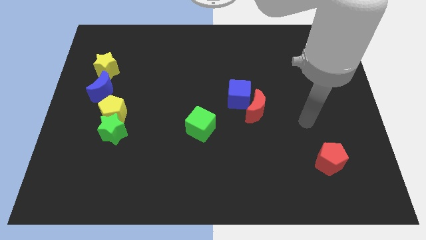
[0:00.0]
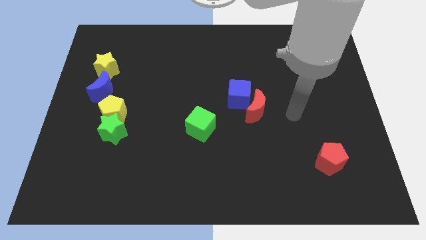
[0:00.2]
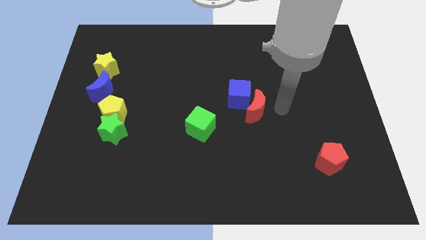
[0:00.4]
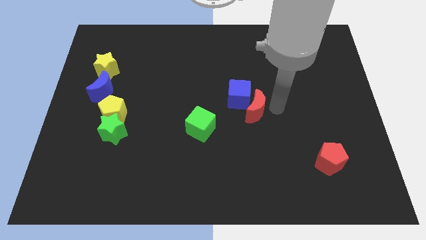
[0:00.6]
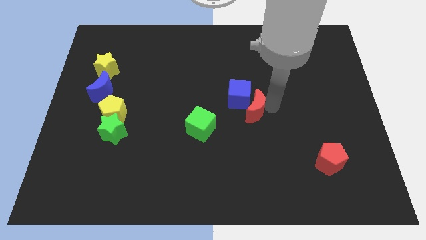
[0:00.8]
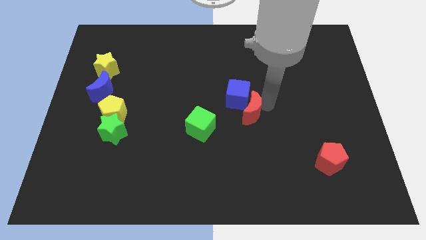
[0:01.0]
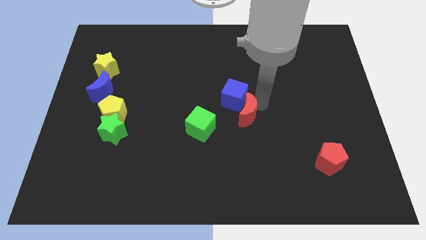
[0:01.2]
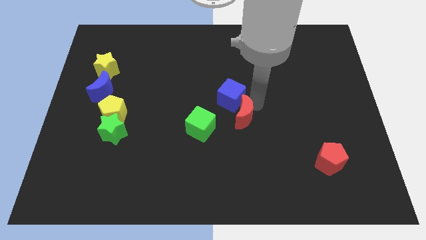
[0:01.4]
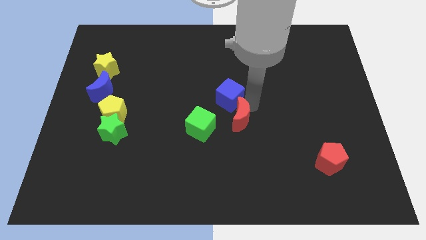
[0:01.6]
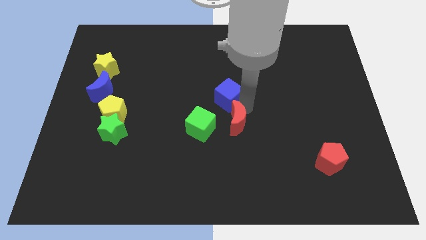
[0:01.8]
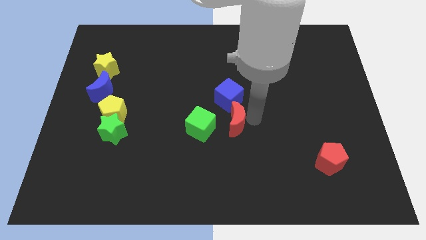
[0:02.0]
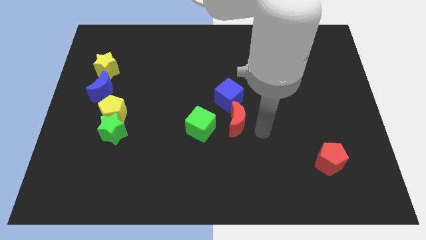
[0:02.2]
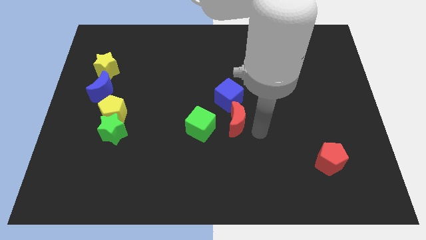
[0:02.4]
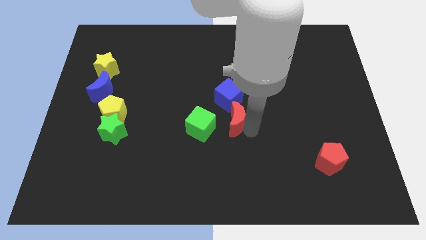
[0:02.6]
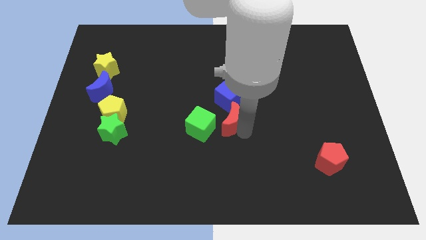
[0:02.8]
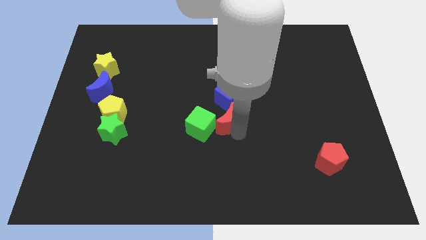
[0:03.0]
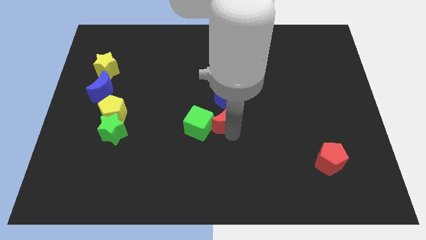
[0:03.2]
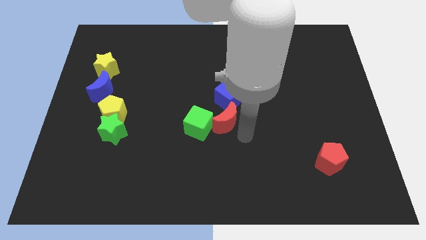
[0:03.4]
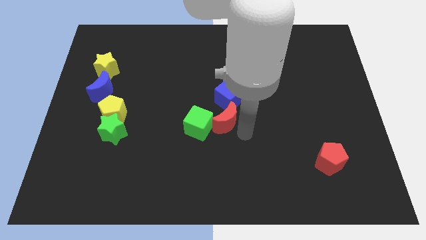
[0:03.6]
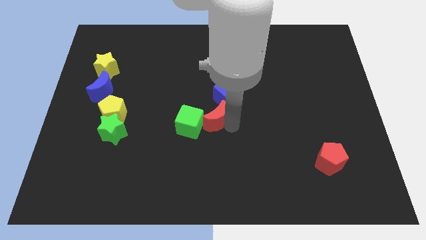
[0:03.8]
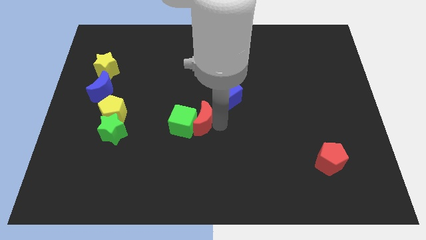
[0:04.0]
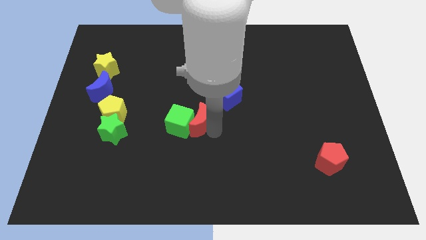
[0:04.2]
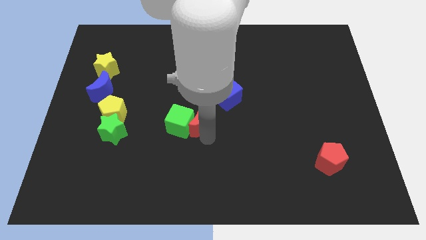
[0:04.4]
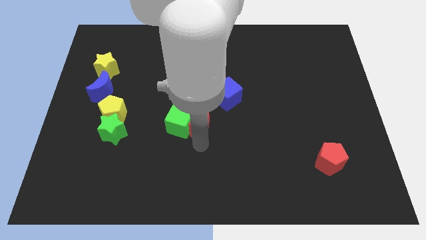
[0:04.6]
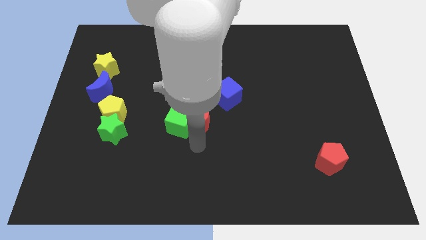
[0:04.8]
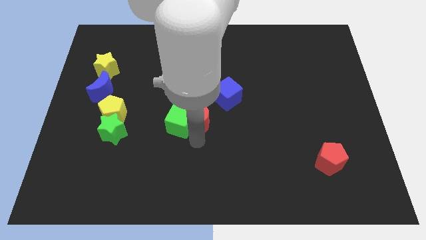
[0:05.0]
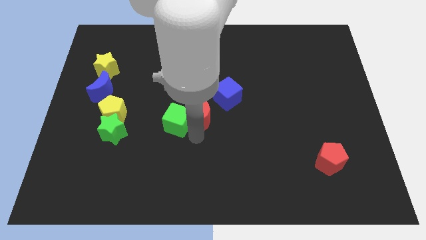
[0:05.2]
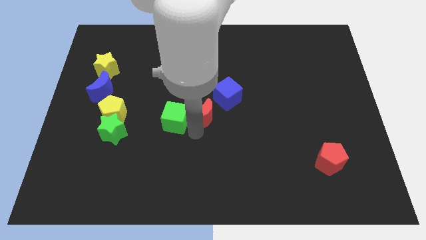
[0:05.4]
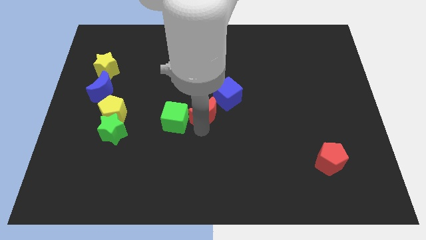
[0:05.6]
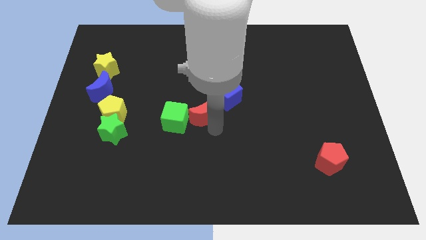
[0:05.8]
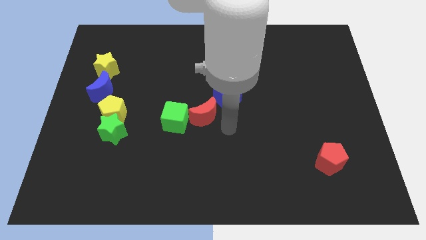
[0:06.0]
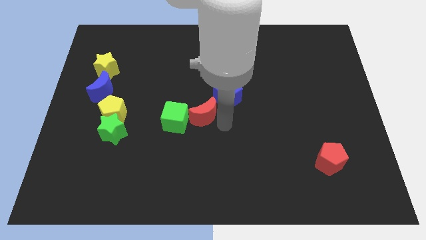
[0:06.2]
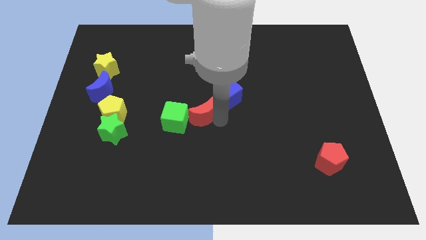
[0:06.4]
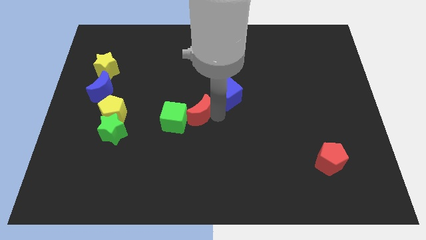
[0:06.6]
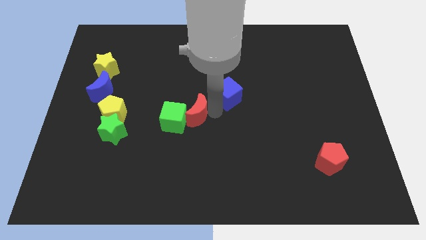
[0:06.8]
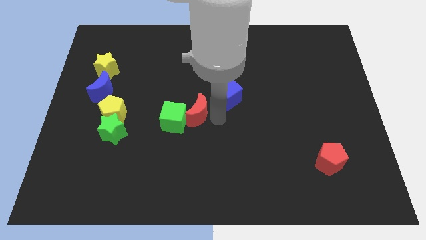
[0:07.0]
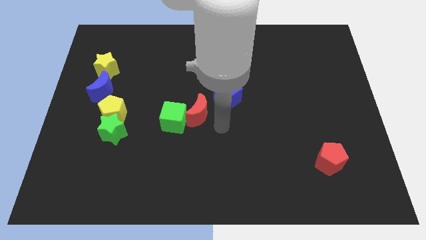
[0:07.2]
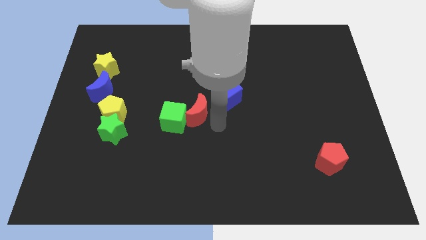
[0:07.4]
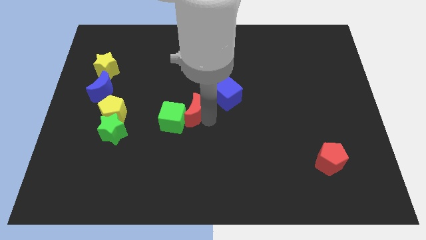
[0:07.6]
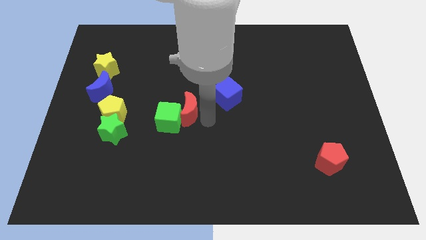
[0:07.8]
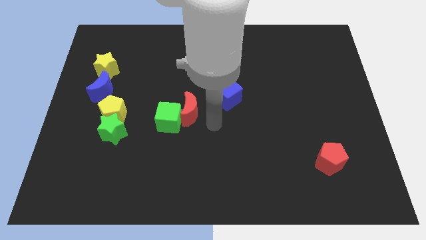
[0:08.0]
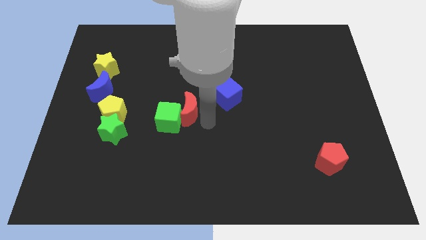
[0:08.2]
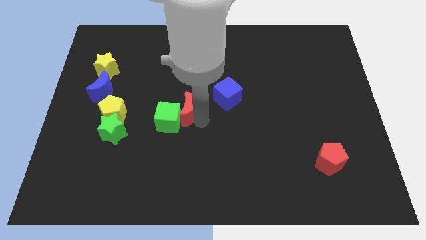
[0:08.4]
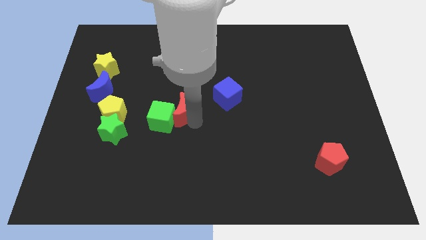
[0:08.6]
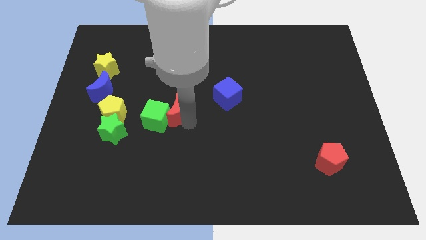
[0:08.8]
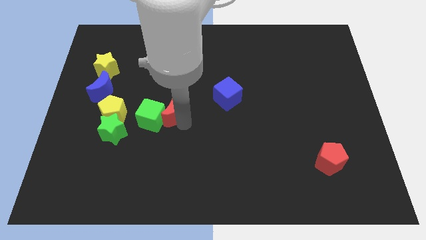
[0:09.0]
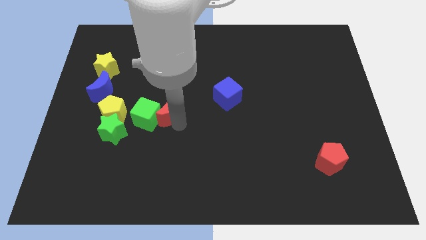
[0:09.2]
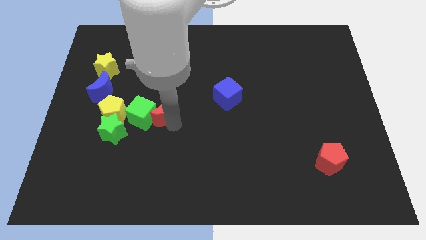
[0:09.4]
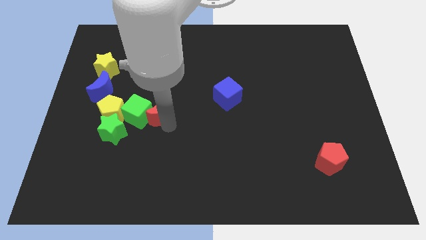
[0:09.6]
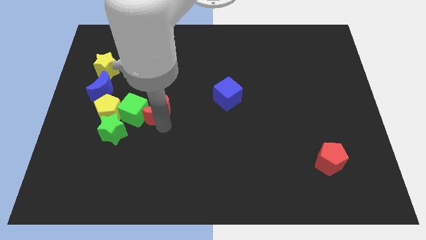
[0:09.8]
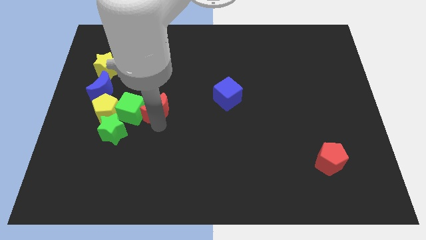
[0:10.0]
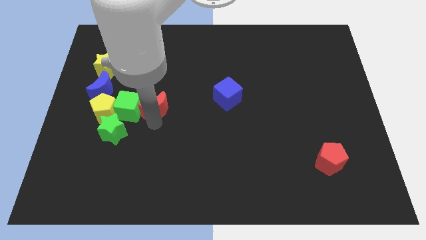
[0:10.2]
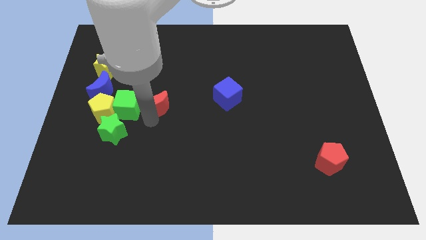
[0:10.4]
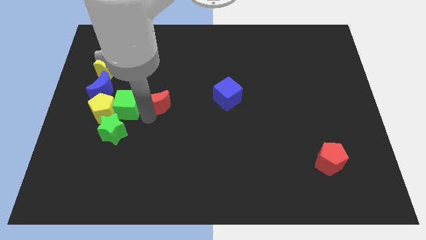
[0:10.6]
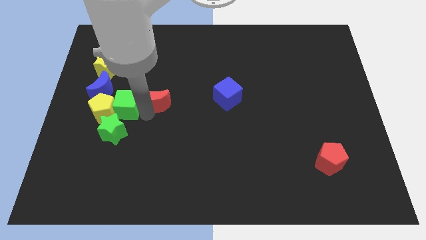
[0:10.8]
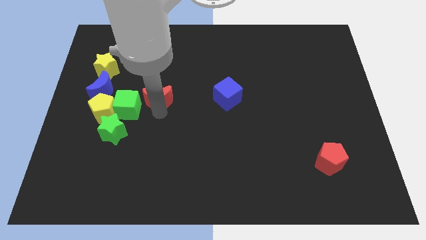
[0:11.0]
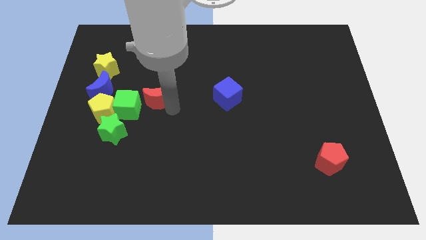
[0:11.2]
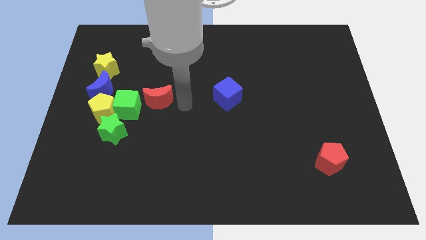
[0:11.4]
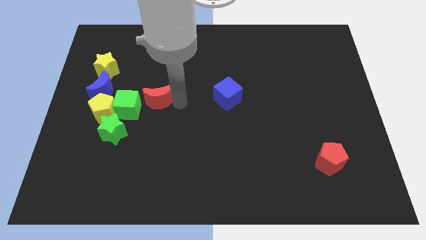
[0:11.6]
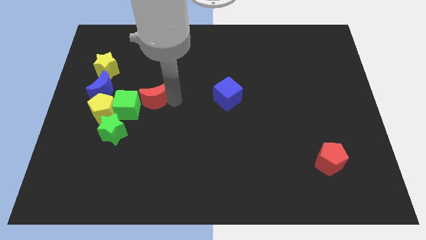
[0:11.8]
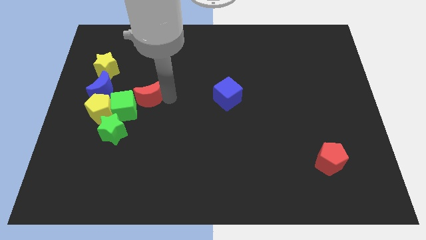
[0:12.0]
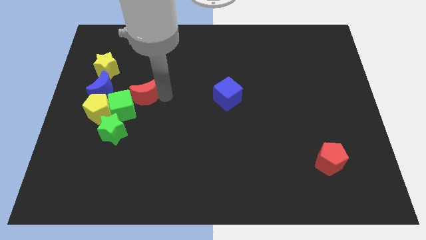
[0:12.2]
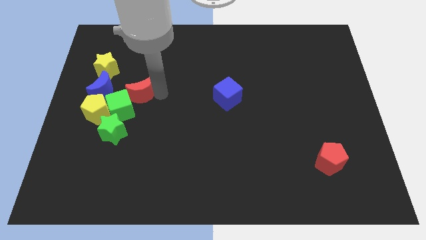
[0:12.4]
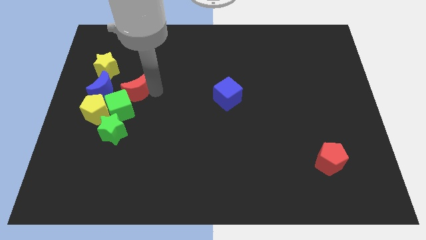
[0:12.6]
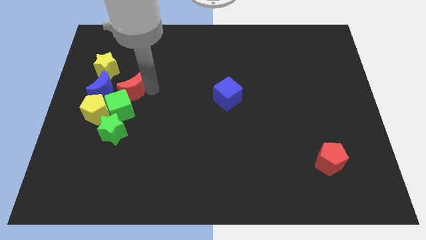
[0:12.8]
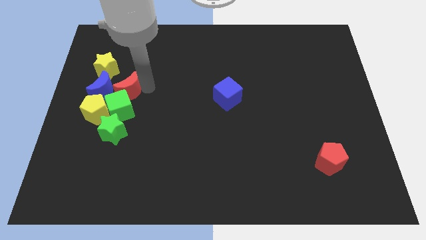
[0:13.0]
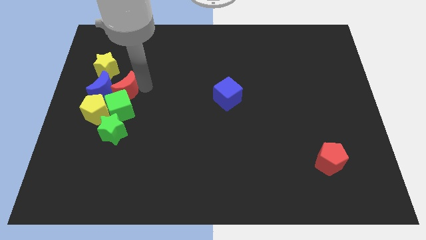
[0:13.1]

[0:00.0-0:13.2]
move the red moon close to the blue moon

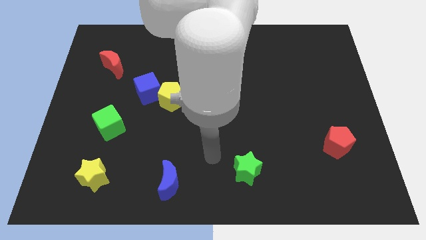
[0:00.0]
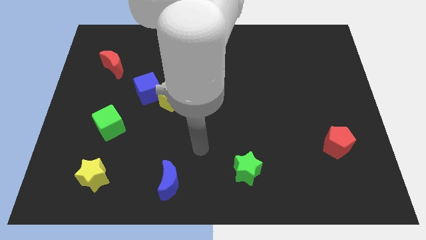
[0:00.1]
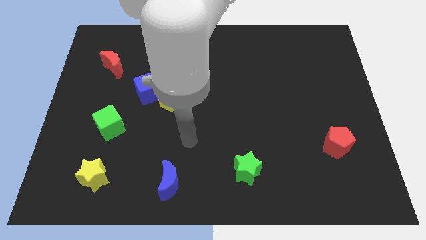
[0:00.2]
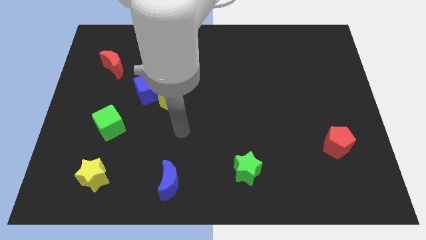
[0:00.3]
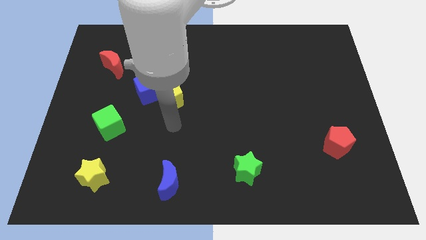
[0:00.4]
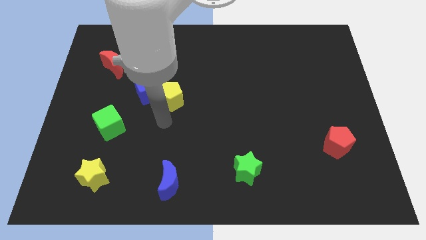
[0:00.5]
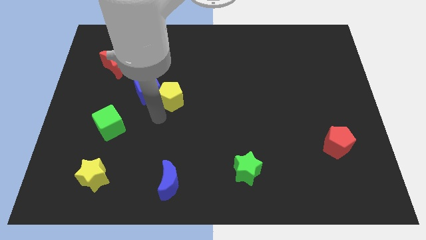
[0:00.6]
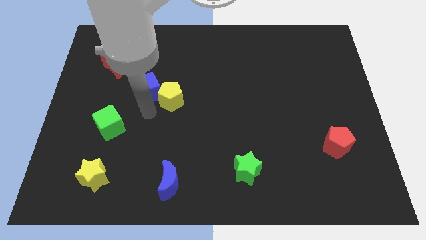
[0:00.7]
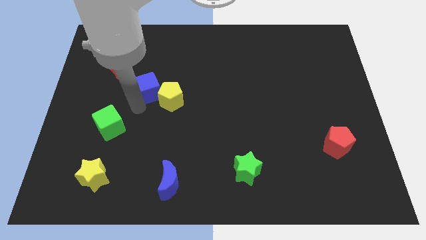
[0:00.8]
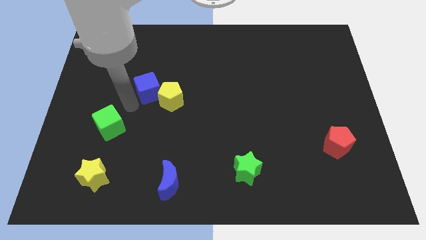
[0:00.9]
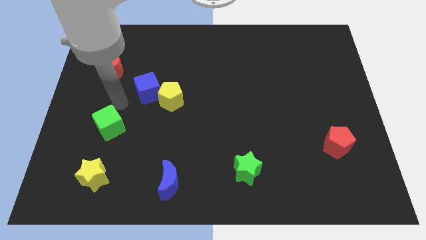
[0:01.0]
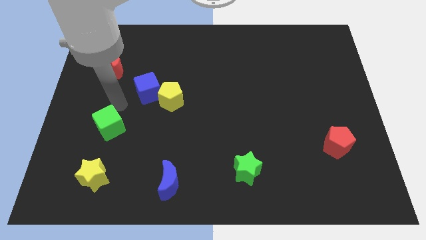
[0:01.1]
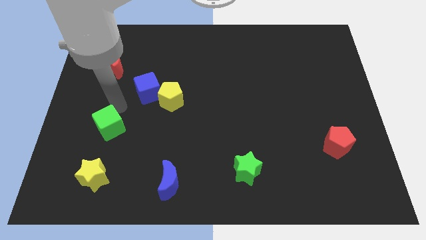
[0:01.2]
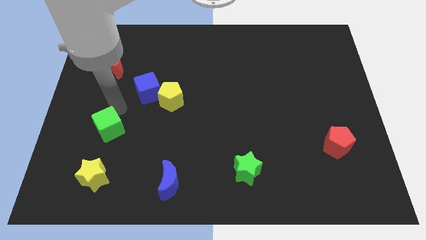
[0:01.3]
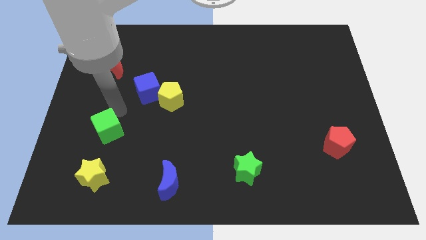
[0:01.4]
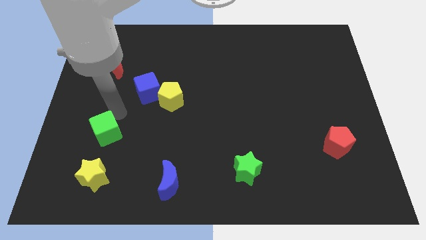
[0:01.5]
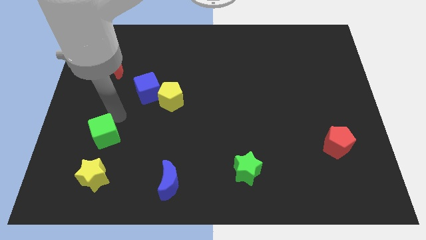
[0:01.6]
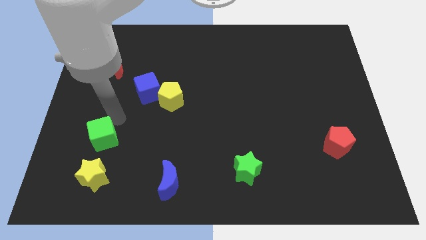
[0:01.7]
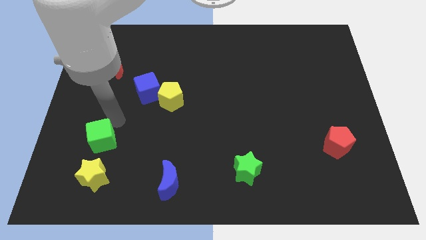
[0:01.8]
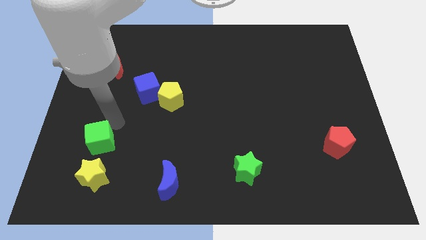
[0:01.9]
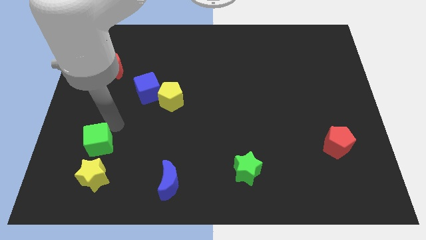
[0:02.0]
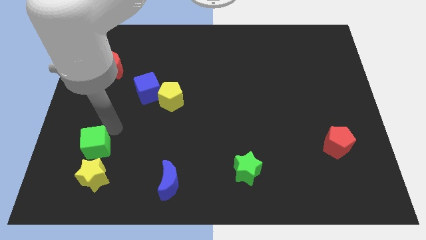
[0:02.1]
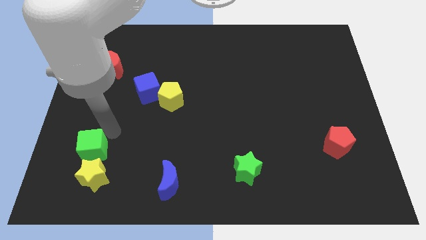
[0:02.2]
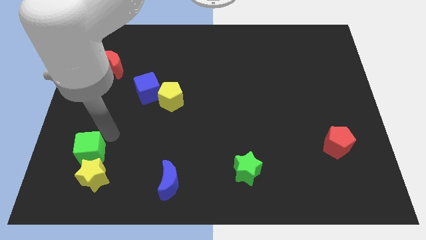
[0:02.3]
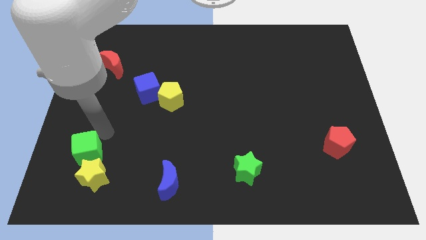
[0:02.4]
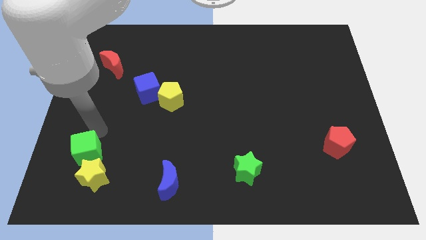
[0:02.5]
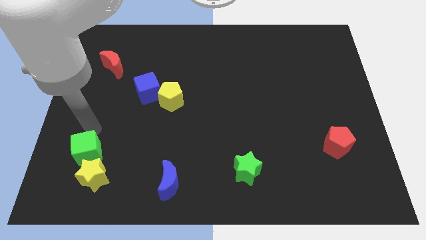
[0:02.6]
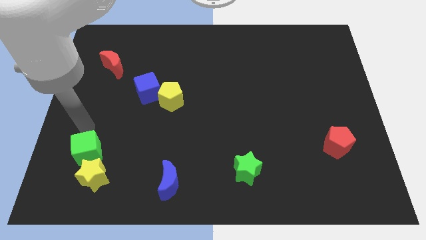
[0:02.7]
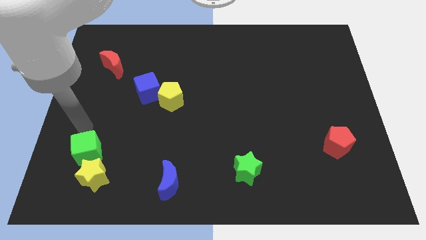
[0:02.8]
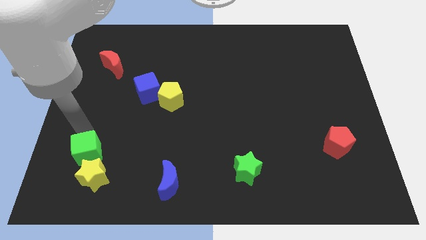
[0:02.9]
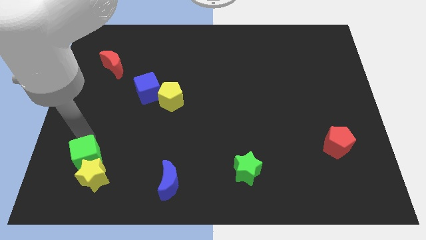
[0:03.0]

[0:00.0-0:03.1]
slide the green cube to the yellow star
